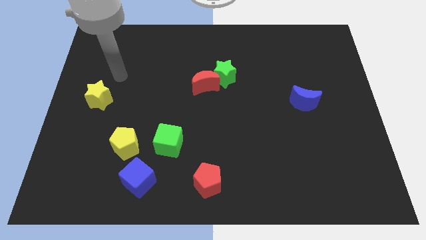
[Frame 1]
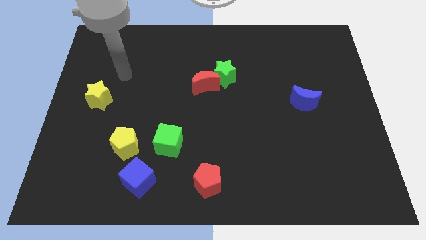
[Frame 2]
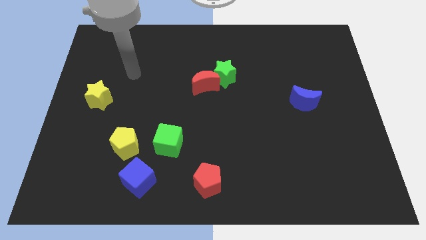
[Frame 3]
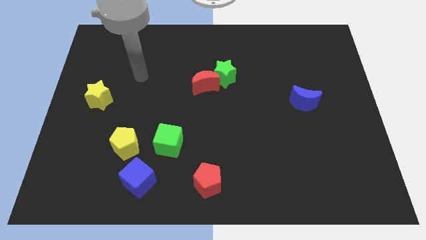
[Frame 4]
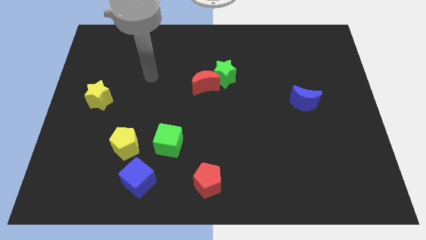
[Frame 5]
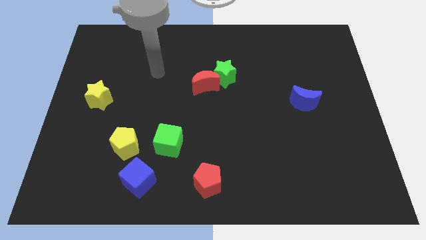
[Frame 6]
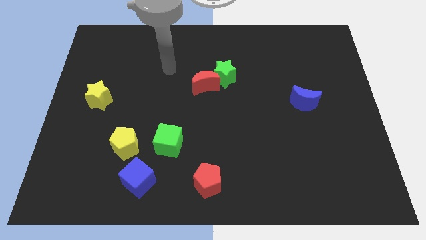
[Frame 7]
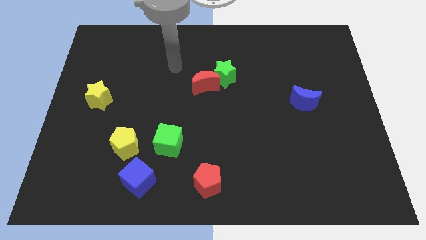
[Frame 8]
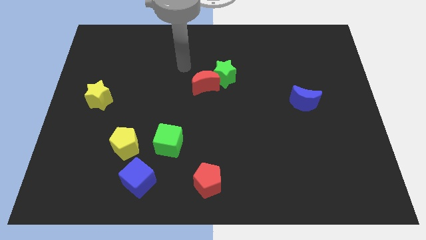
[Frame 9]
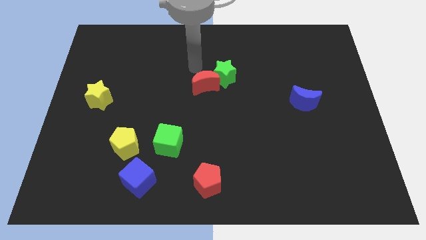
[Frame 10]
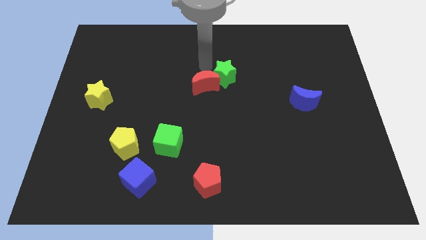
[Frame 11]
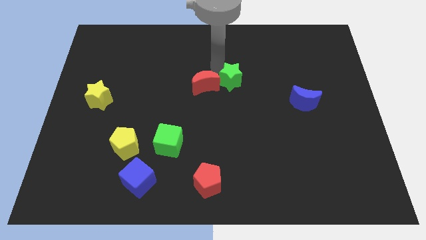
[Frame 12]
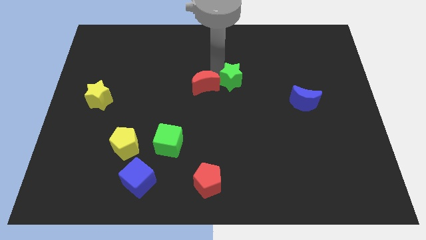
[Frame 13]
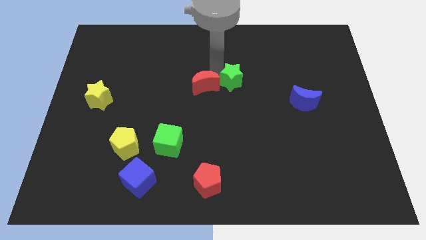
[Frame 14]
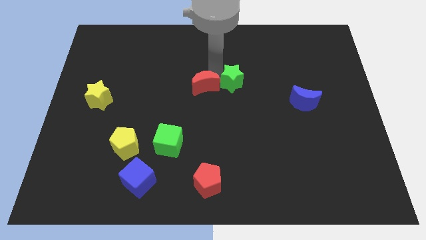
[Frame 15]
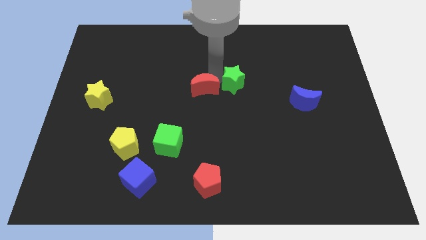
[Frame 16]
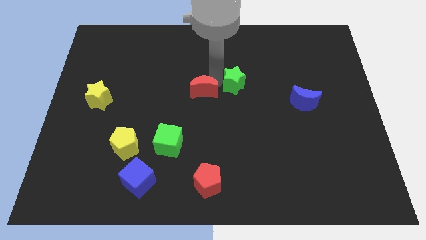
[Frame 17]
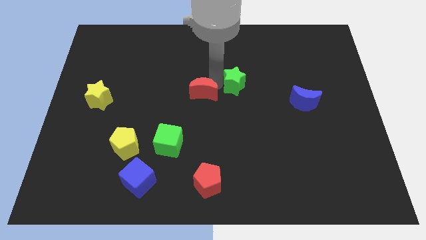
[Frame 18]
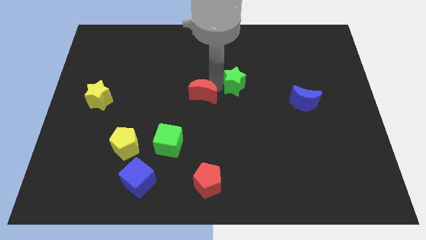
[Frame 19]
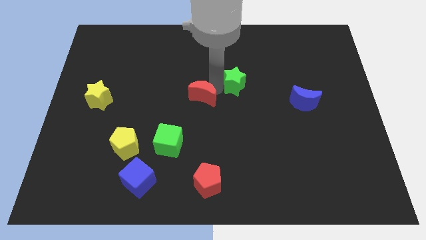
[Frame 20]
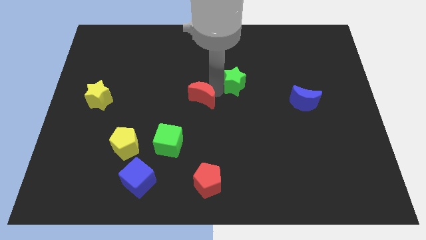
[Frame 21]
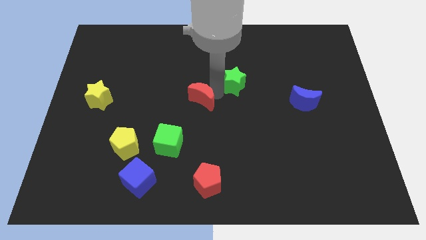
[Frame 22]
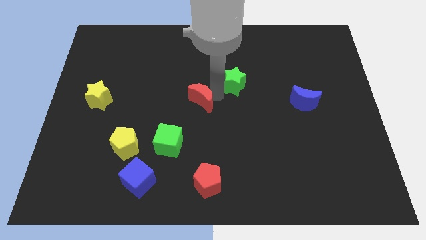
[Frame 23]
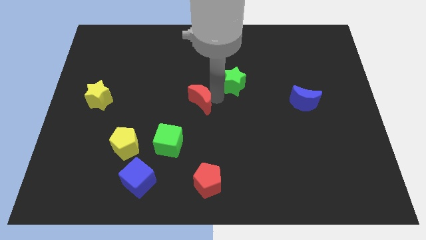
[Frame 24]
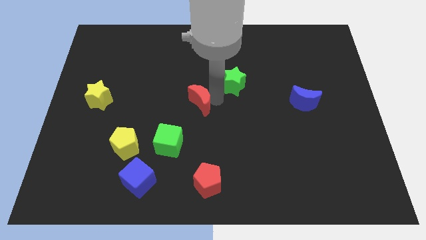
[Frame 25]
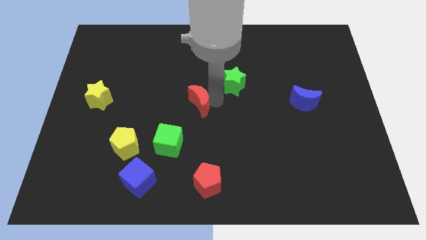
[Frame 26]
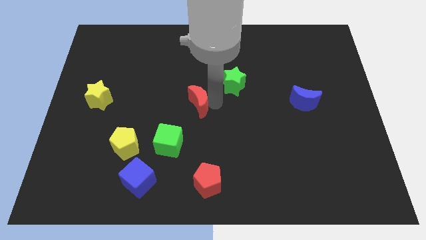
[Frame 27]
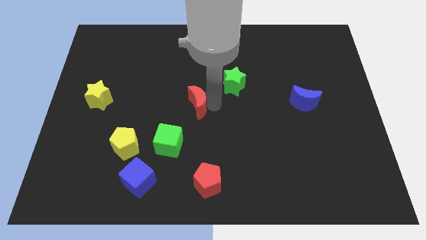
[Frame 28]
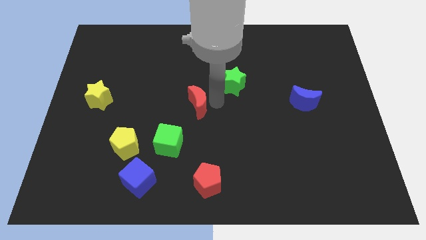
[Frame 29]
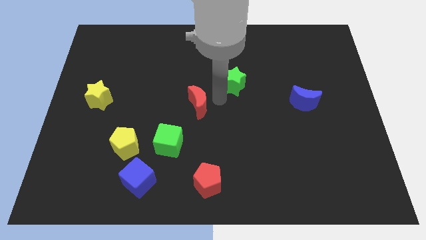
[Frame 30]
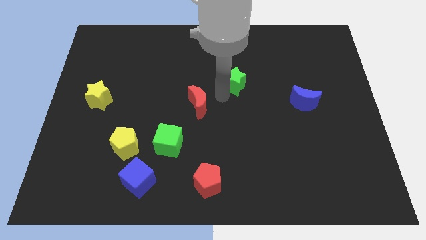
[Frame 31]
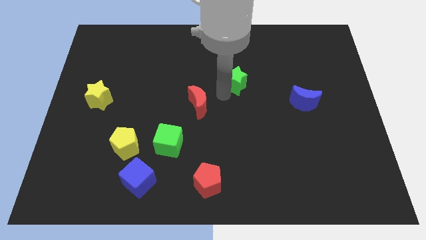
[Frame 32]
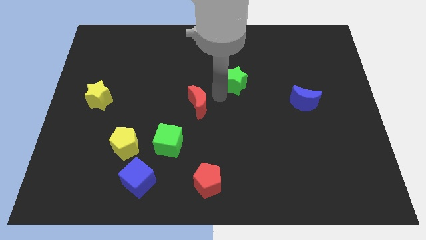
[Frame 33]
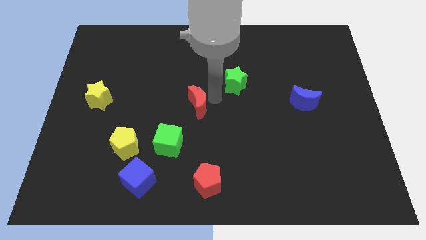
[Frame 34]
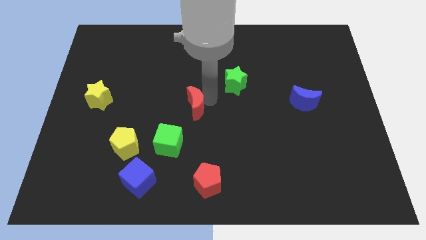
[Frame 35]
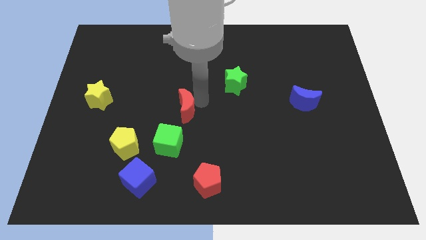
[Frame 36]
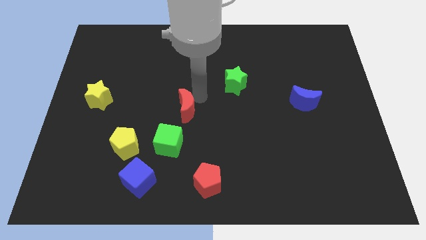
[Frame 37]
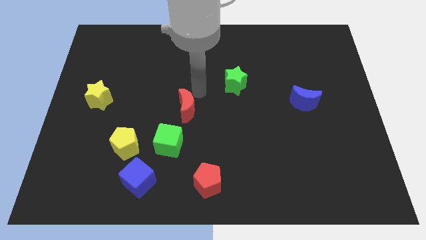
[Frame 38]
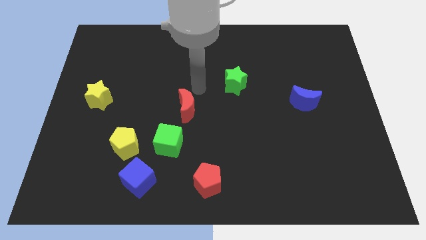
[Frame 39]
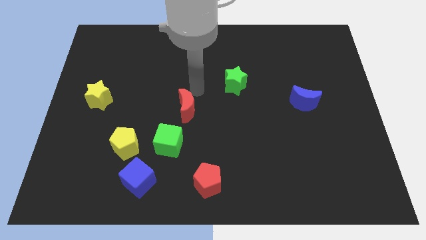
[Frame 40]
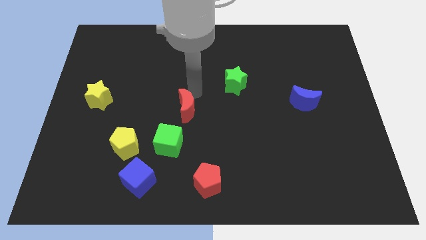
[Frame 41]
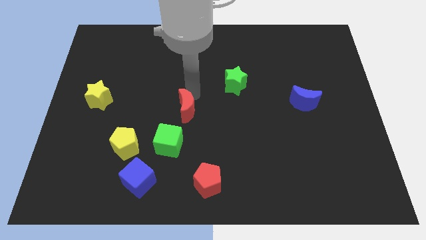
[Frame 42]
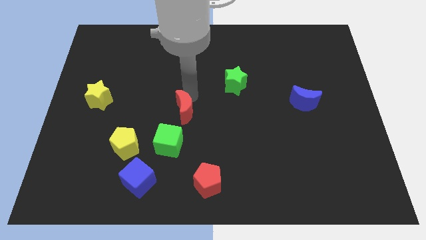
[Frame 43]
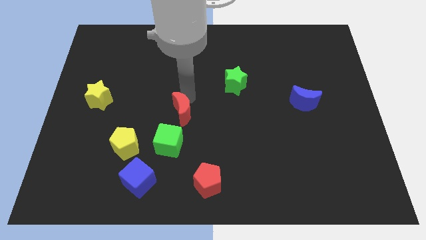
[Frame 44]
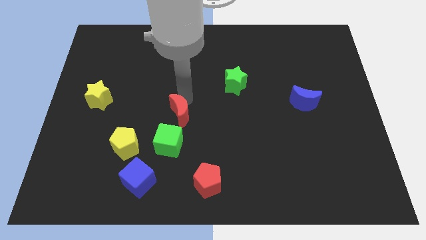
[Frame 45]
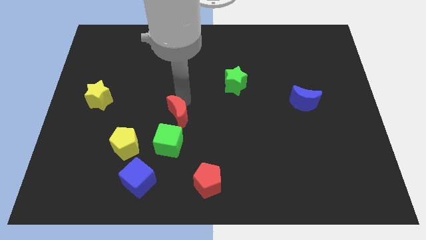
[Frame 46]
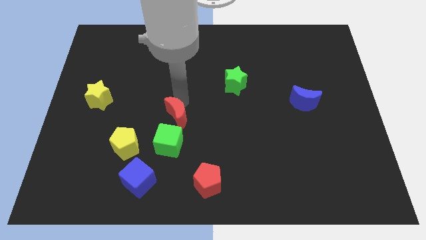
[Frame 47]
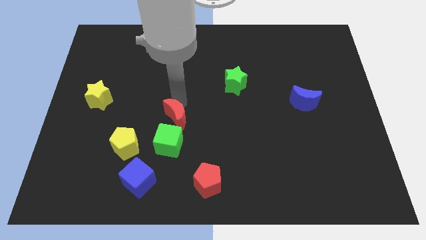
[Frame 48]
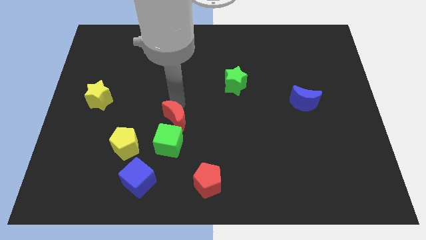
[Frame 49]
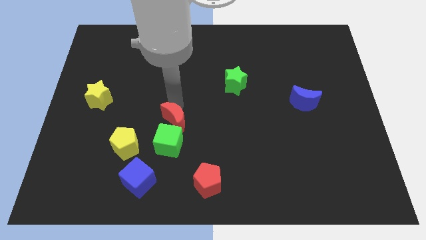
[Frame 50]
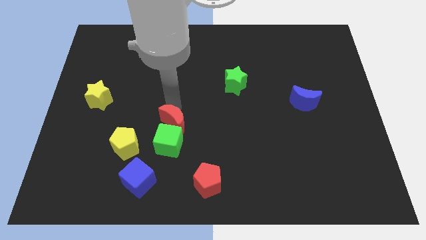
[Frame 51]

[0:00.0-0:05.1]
slide the red moon to the green cube

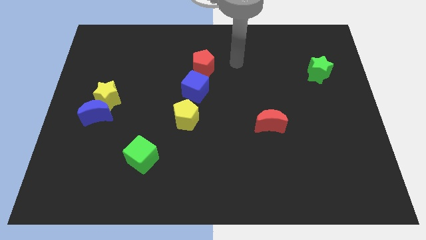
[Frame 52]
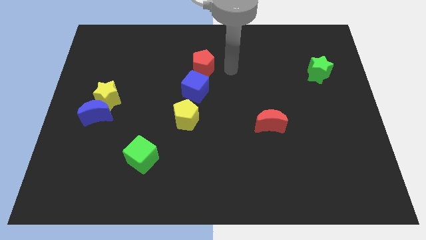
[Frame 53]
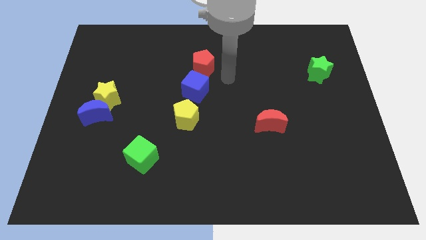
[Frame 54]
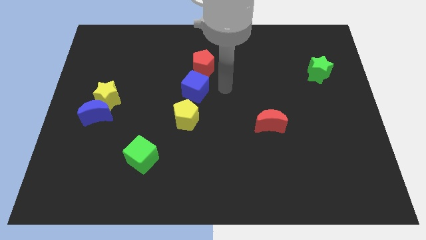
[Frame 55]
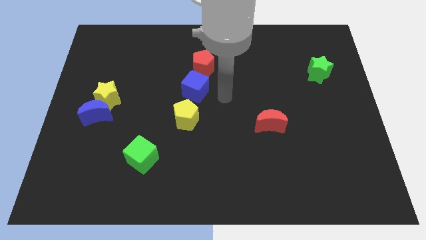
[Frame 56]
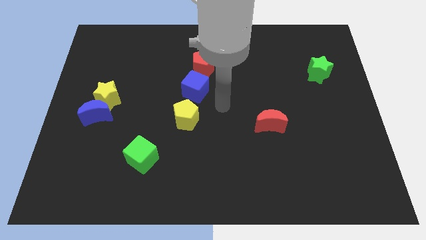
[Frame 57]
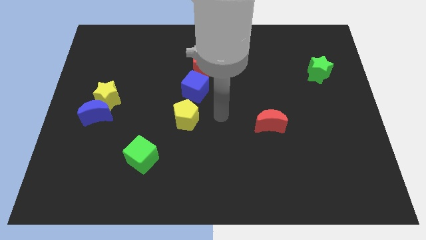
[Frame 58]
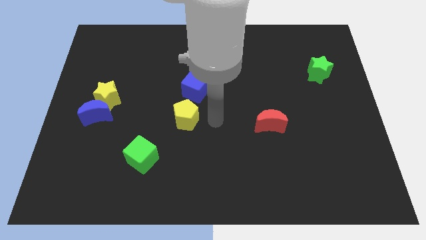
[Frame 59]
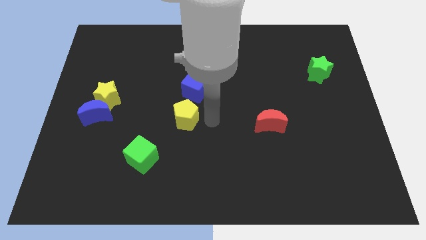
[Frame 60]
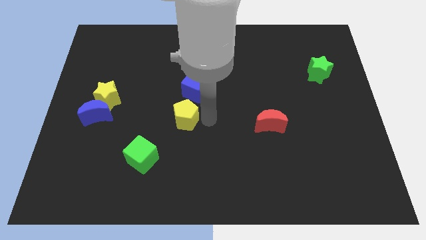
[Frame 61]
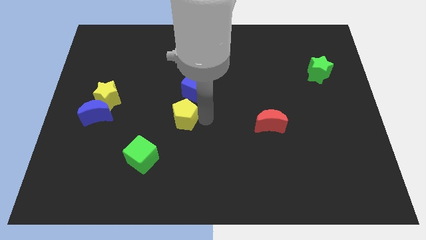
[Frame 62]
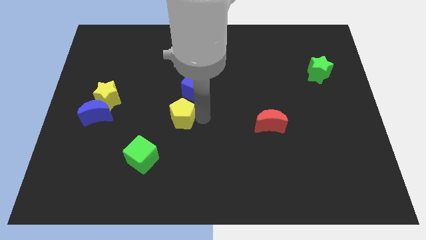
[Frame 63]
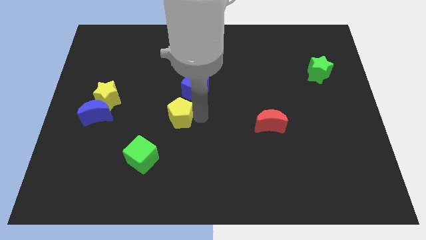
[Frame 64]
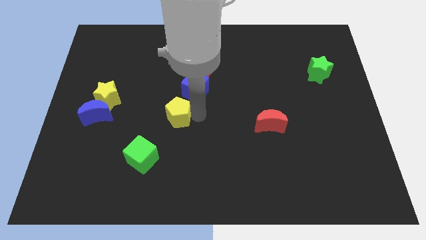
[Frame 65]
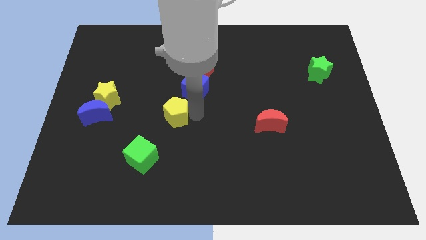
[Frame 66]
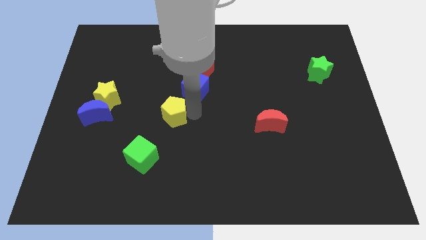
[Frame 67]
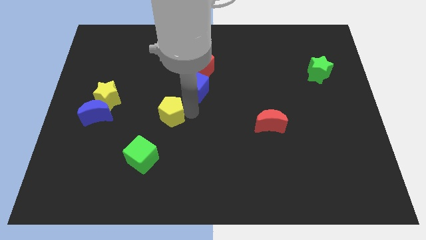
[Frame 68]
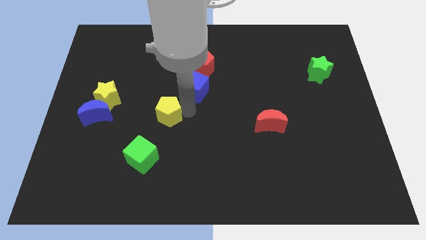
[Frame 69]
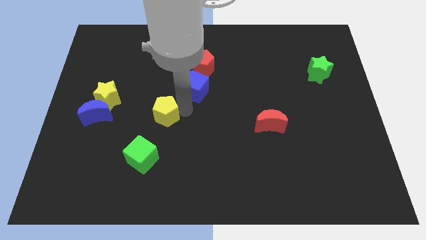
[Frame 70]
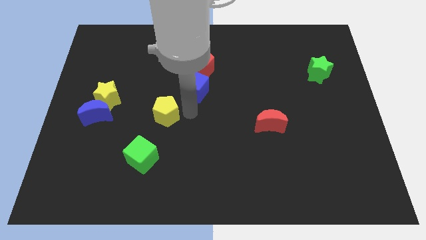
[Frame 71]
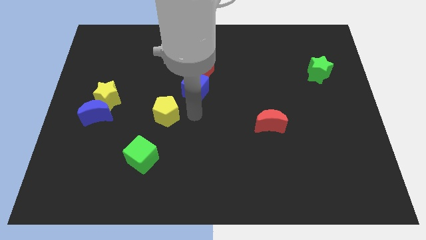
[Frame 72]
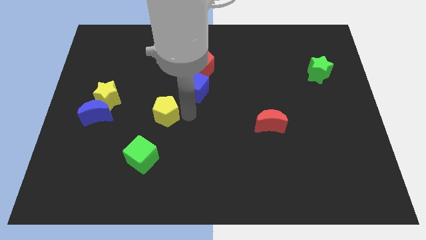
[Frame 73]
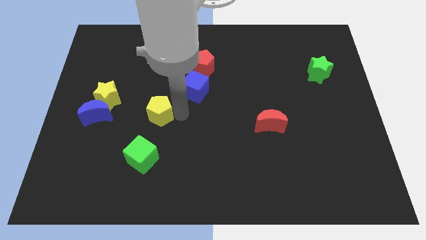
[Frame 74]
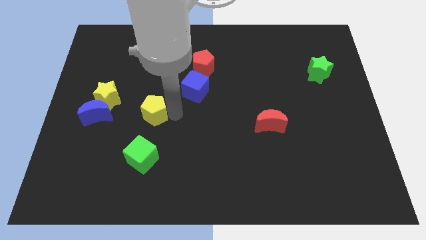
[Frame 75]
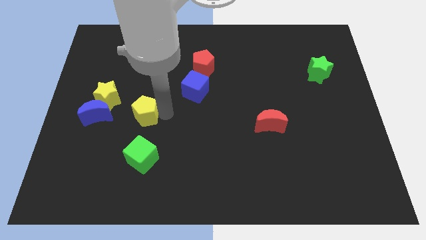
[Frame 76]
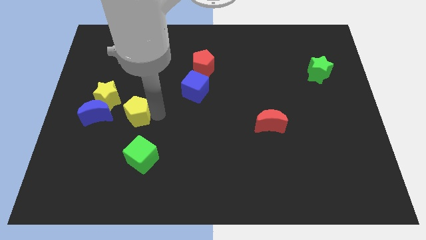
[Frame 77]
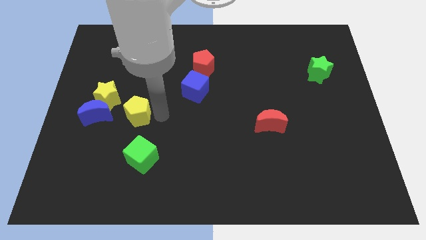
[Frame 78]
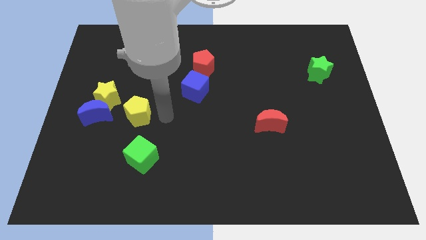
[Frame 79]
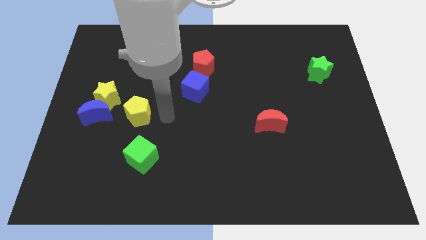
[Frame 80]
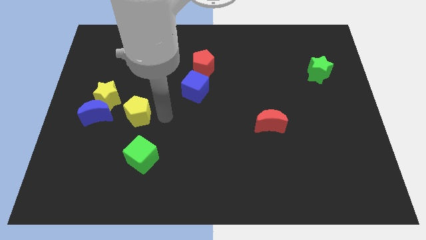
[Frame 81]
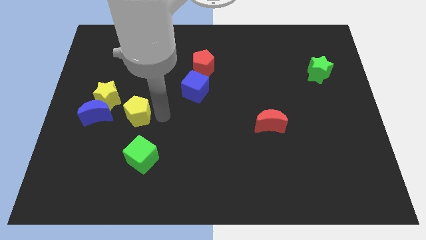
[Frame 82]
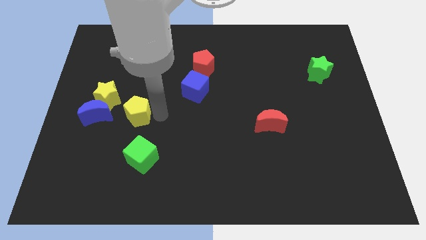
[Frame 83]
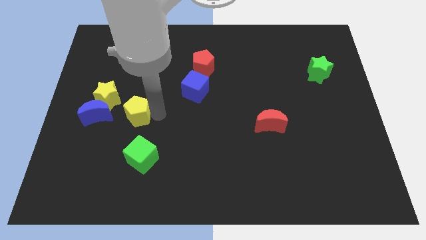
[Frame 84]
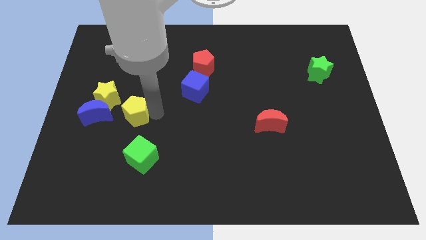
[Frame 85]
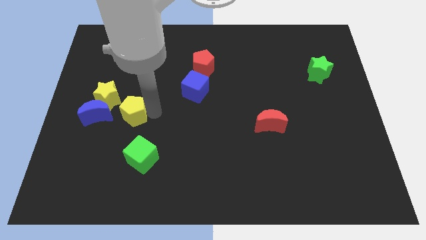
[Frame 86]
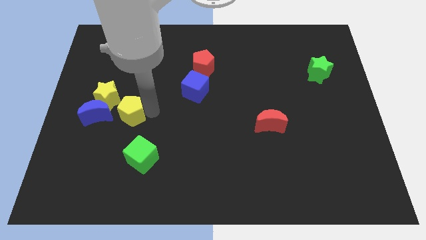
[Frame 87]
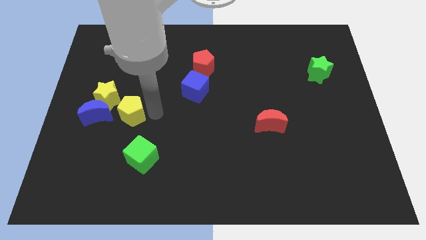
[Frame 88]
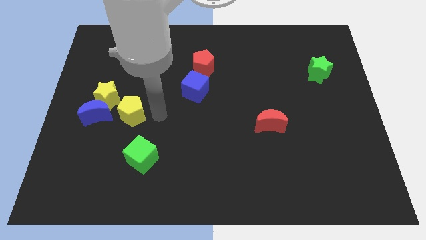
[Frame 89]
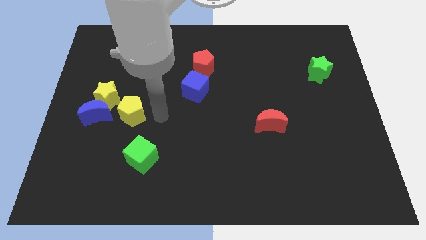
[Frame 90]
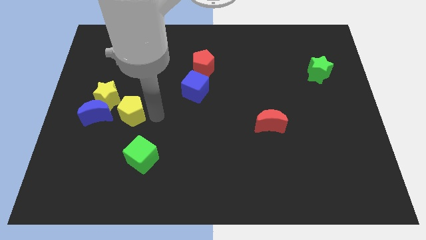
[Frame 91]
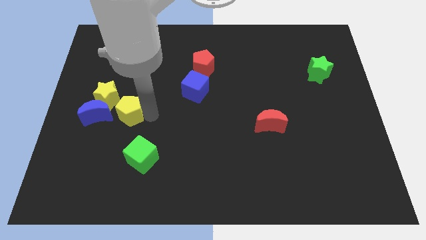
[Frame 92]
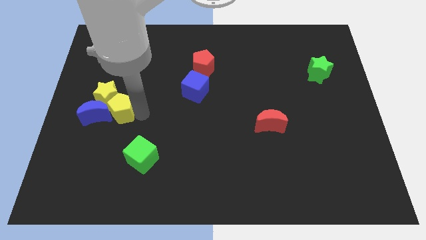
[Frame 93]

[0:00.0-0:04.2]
push the yellow pentagon towards the blue moon
